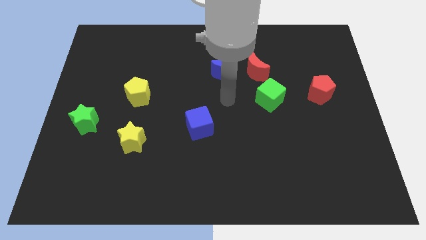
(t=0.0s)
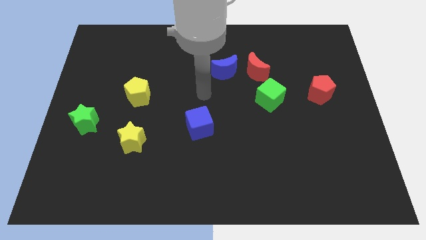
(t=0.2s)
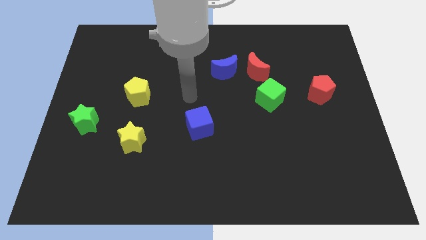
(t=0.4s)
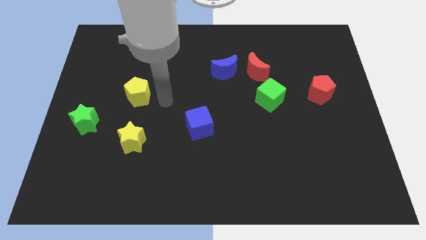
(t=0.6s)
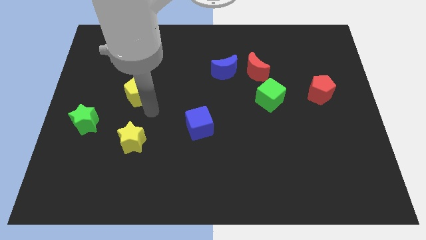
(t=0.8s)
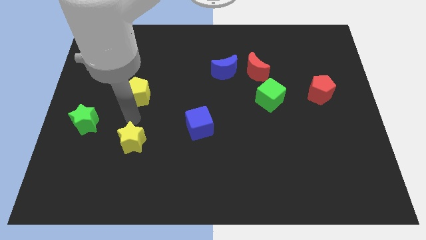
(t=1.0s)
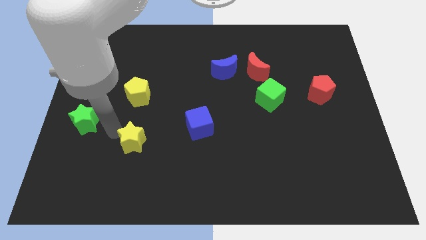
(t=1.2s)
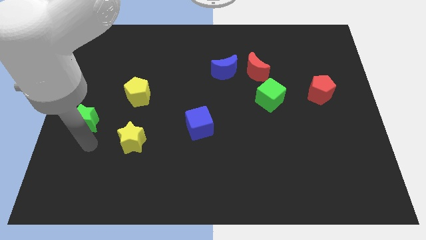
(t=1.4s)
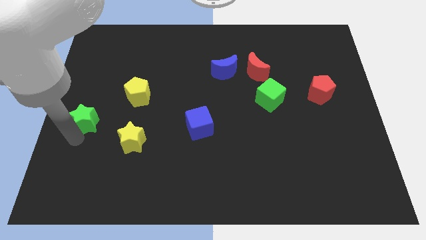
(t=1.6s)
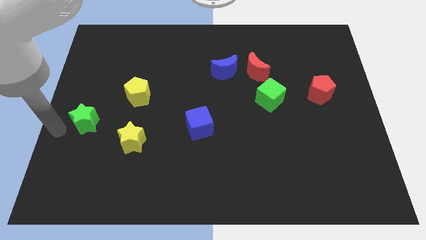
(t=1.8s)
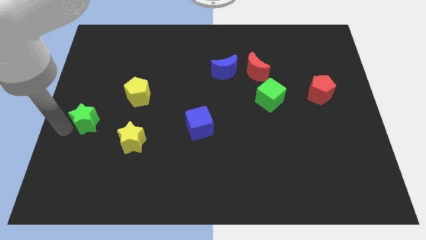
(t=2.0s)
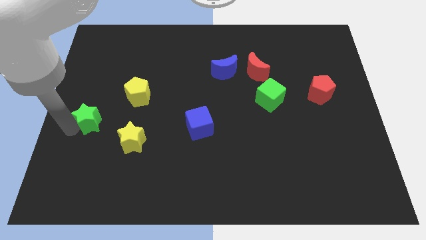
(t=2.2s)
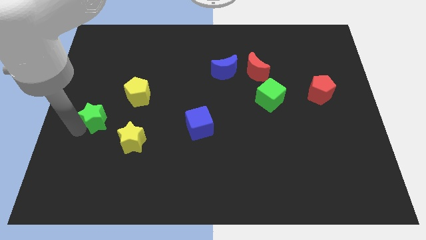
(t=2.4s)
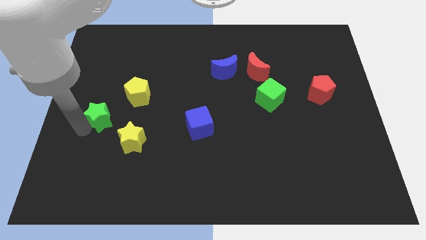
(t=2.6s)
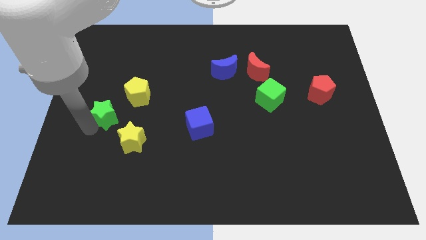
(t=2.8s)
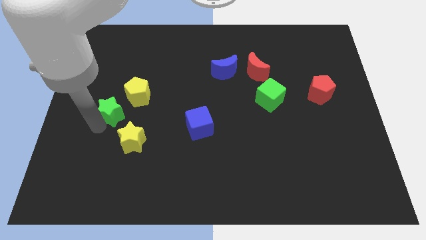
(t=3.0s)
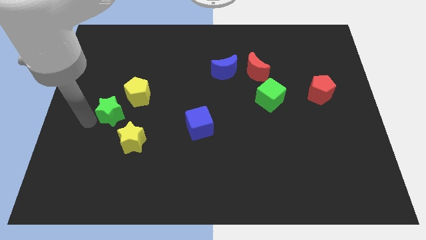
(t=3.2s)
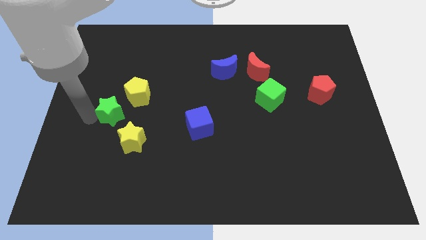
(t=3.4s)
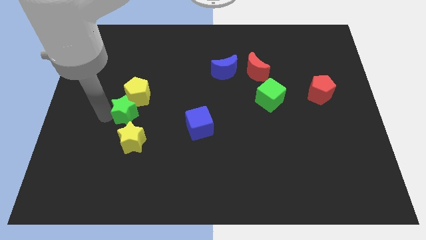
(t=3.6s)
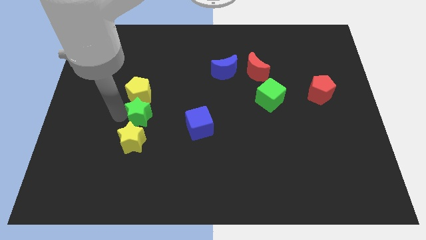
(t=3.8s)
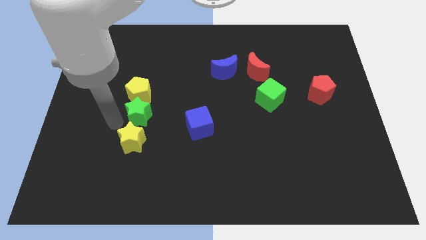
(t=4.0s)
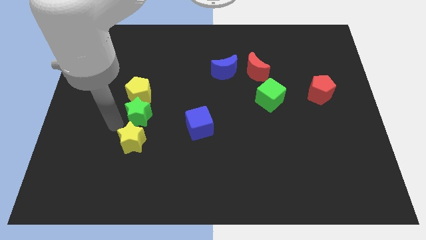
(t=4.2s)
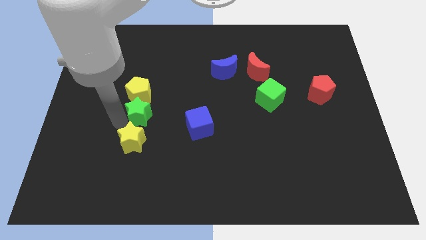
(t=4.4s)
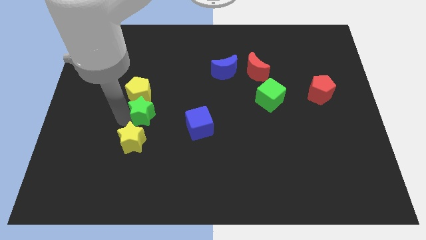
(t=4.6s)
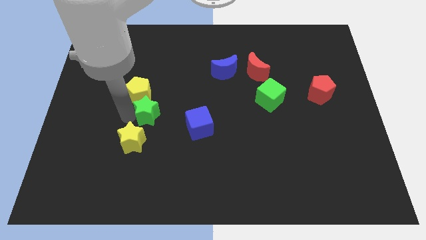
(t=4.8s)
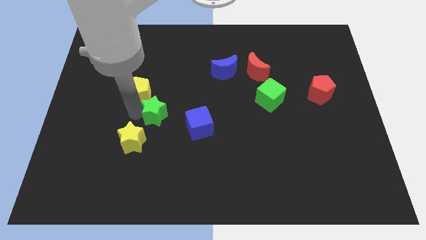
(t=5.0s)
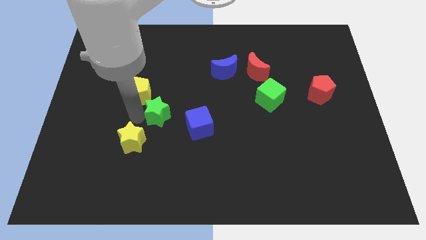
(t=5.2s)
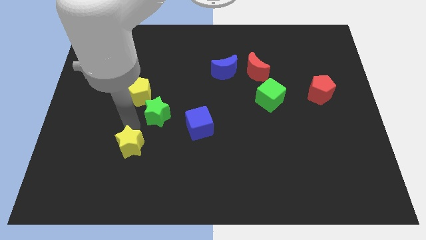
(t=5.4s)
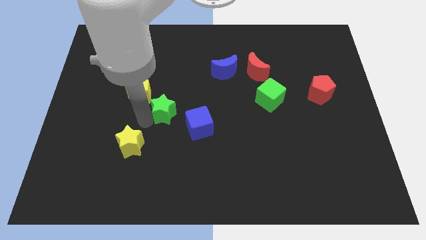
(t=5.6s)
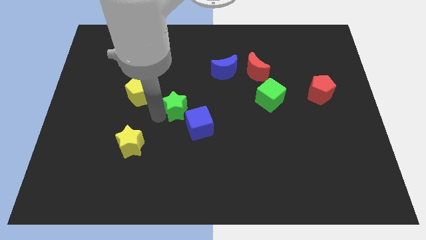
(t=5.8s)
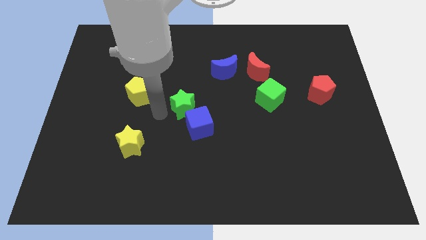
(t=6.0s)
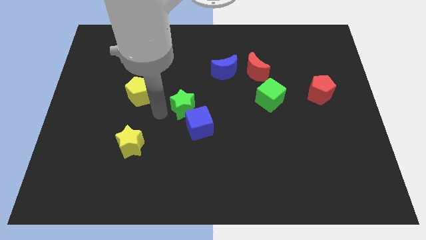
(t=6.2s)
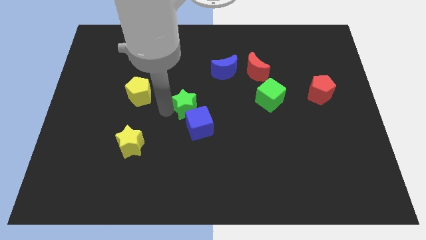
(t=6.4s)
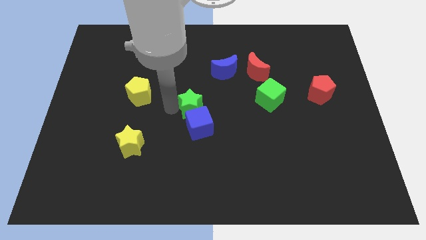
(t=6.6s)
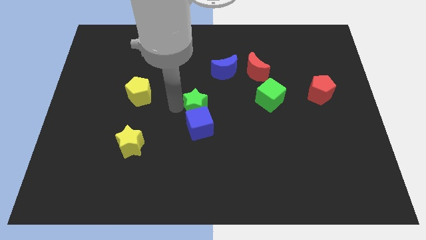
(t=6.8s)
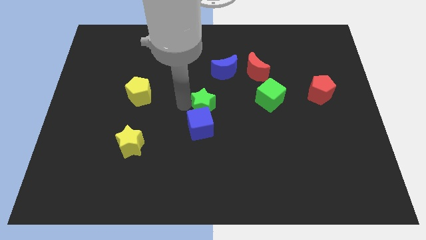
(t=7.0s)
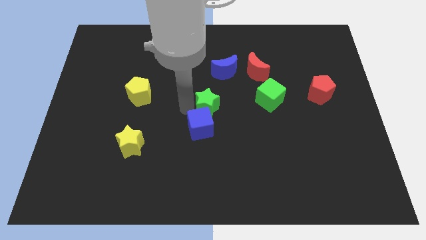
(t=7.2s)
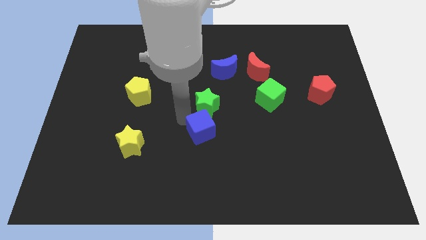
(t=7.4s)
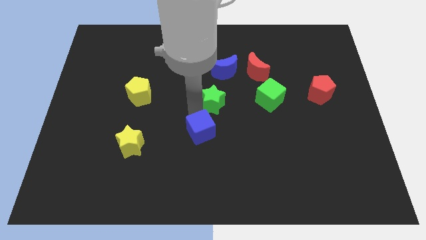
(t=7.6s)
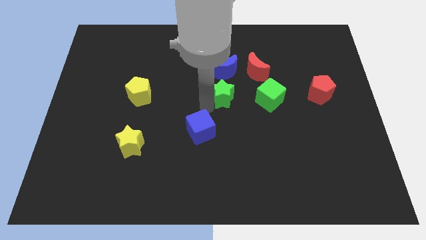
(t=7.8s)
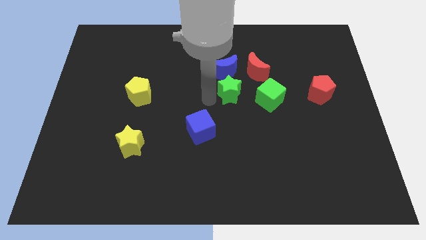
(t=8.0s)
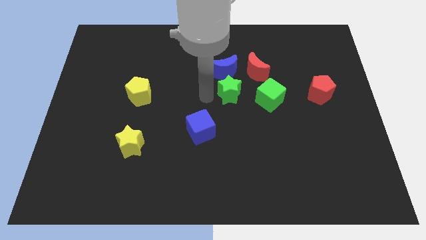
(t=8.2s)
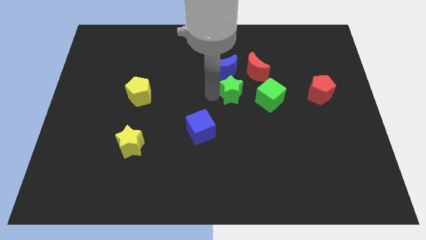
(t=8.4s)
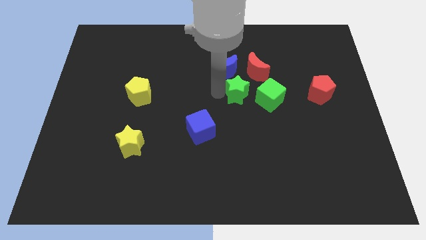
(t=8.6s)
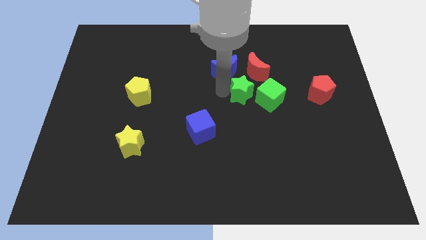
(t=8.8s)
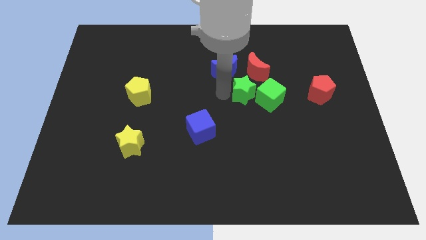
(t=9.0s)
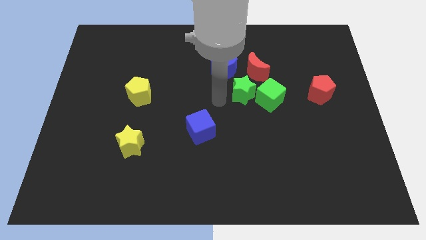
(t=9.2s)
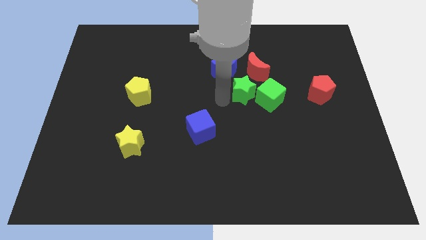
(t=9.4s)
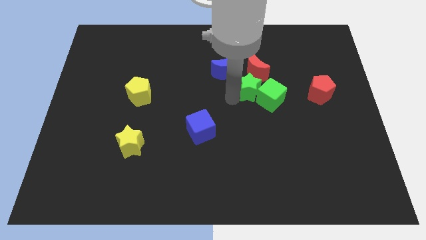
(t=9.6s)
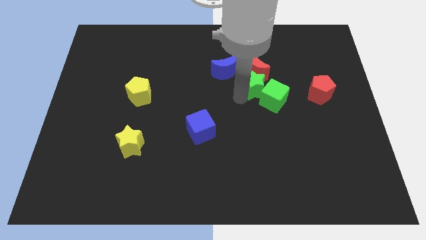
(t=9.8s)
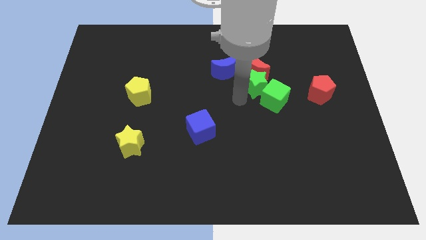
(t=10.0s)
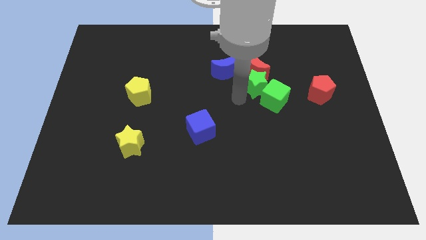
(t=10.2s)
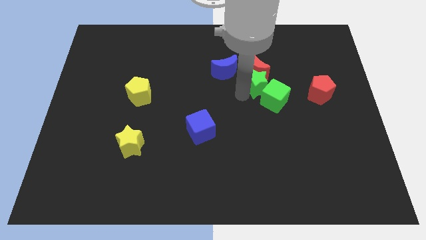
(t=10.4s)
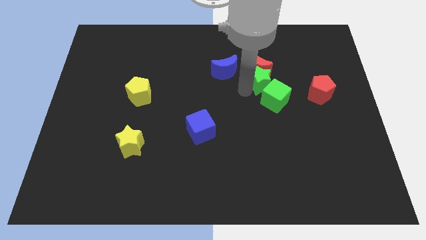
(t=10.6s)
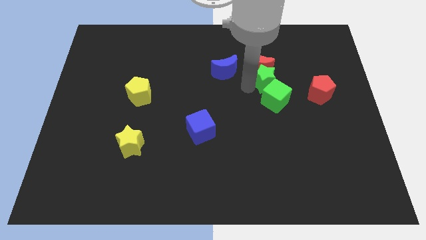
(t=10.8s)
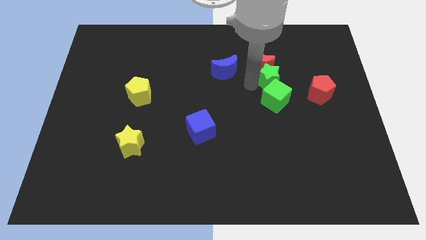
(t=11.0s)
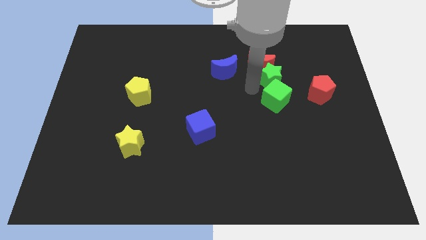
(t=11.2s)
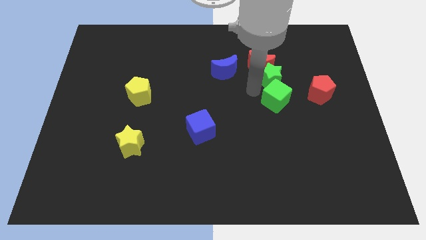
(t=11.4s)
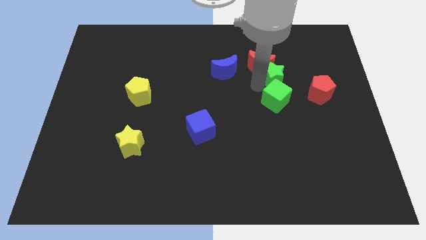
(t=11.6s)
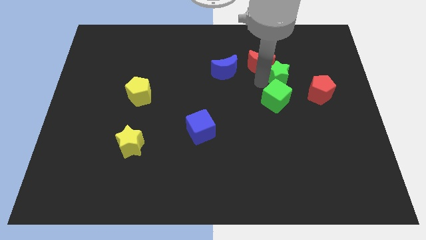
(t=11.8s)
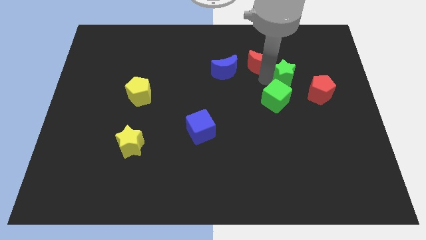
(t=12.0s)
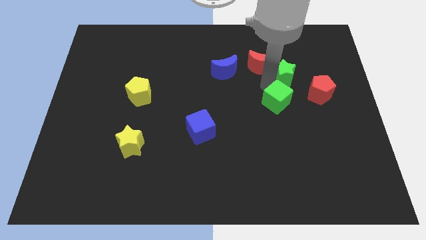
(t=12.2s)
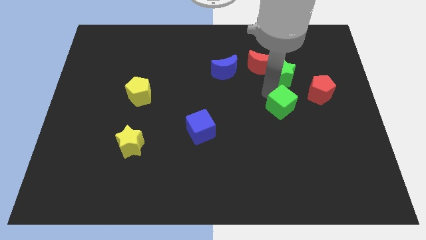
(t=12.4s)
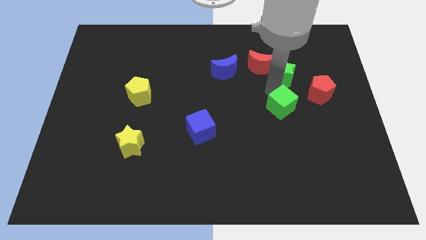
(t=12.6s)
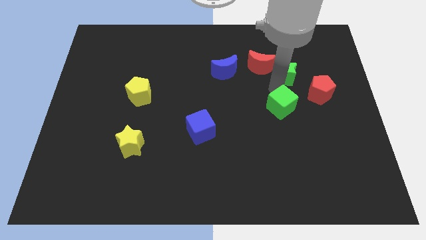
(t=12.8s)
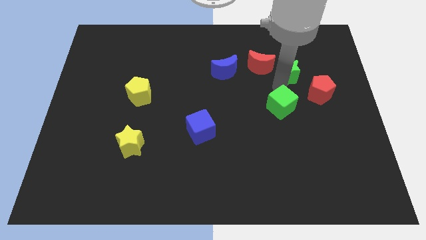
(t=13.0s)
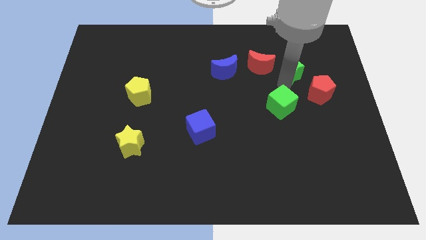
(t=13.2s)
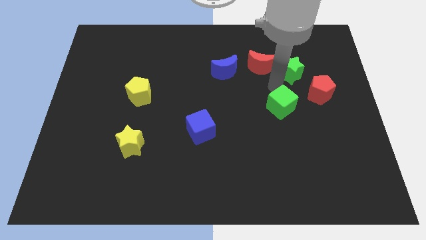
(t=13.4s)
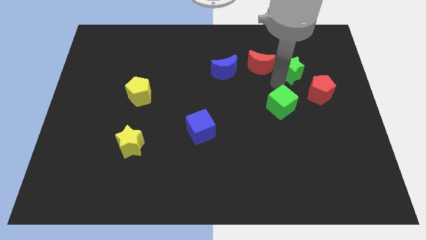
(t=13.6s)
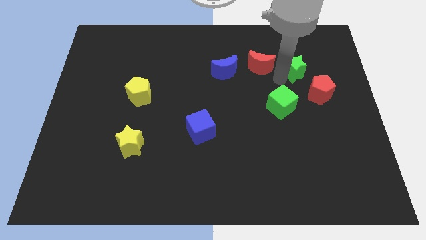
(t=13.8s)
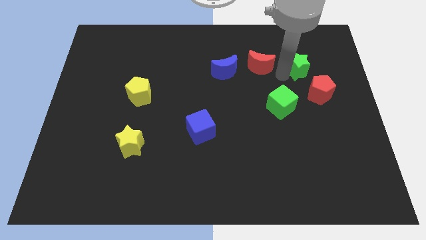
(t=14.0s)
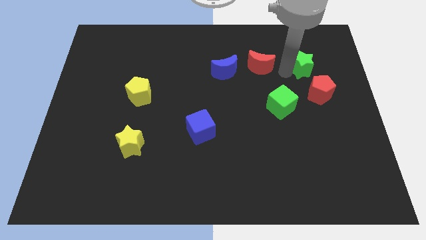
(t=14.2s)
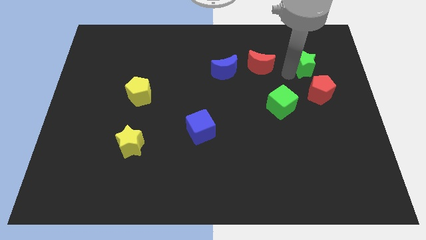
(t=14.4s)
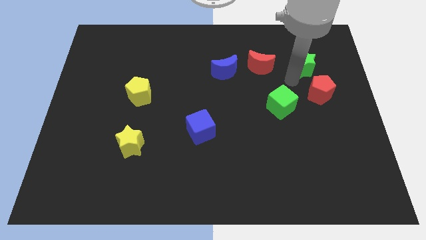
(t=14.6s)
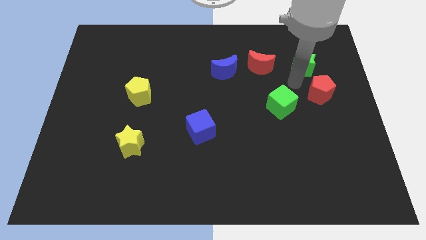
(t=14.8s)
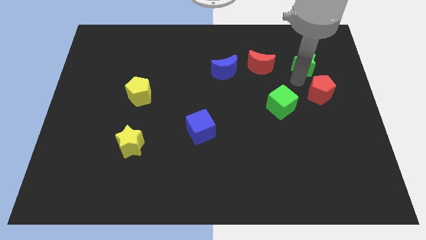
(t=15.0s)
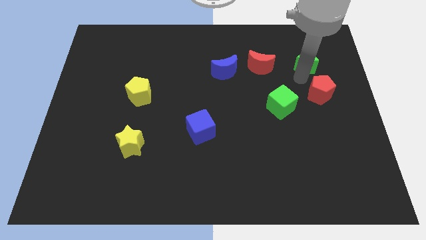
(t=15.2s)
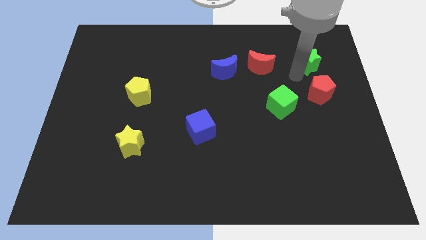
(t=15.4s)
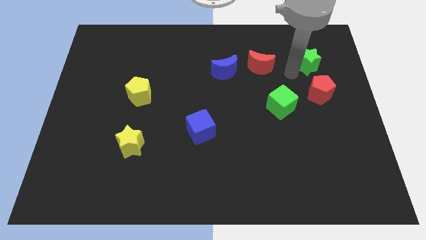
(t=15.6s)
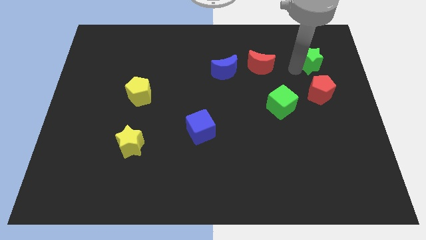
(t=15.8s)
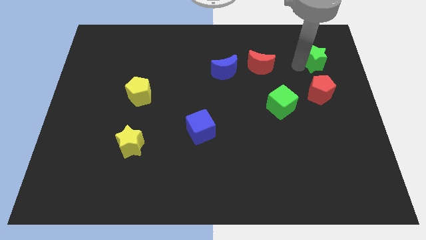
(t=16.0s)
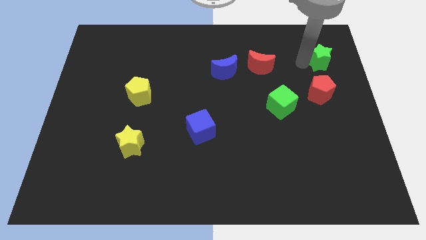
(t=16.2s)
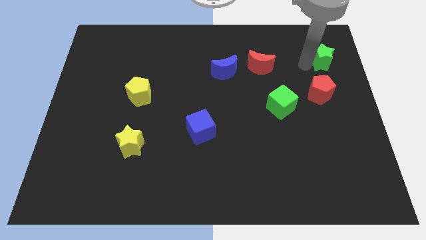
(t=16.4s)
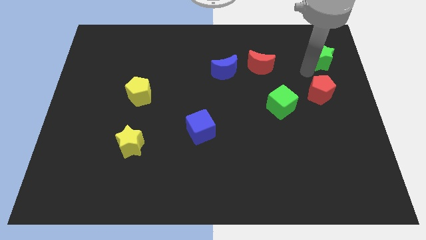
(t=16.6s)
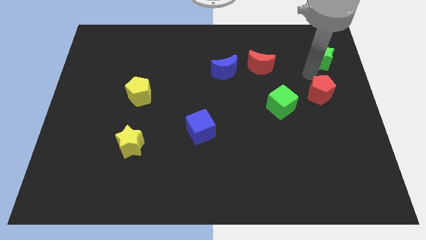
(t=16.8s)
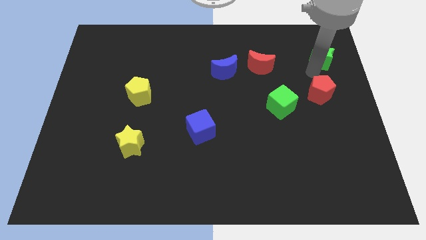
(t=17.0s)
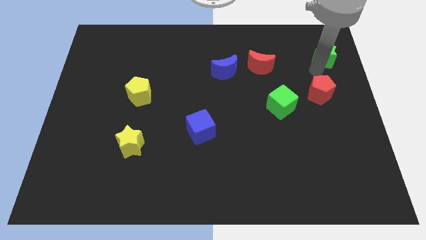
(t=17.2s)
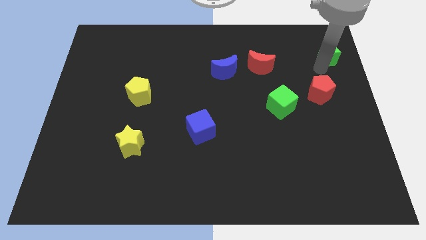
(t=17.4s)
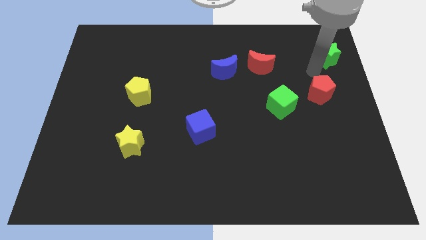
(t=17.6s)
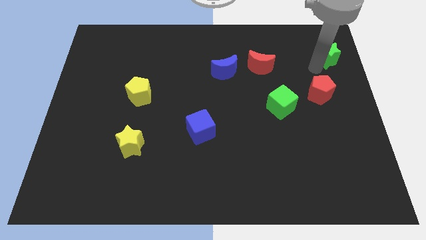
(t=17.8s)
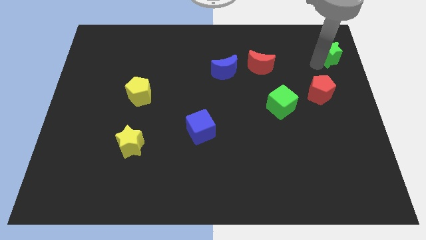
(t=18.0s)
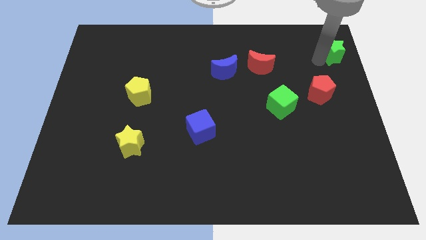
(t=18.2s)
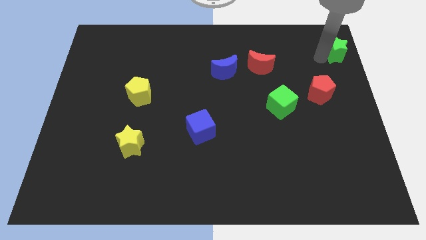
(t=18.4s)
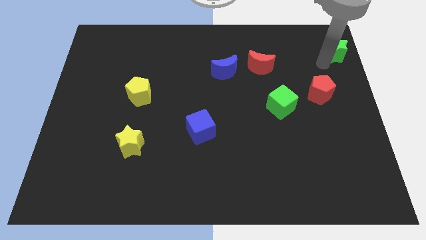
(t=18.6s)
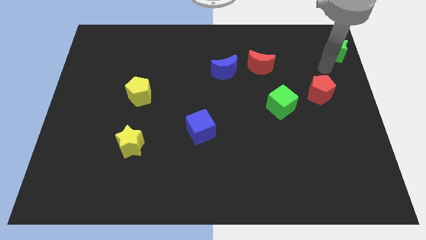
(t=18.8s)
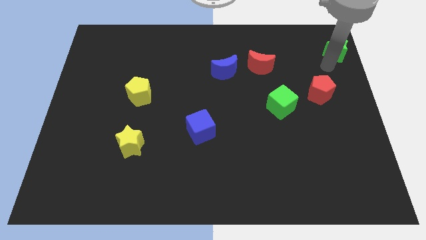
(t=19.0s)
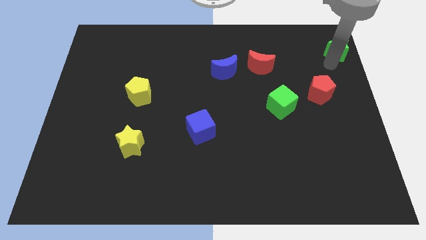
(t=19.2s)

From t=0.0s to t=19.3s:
move the green star to the top right of the board
